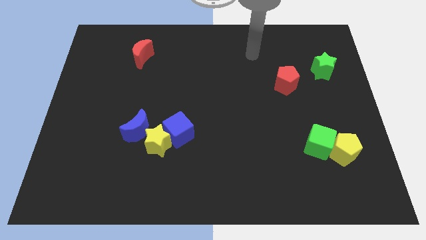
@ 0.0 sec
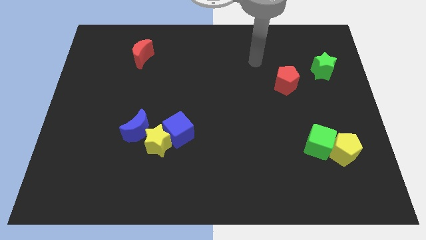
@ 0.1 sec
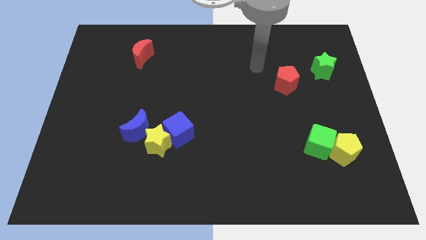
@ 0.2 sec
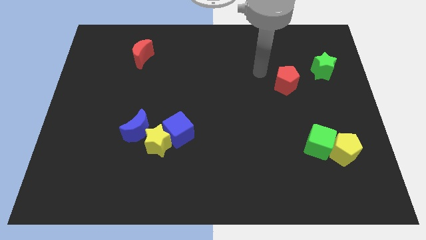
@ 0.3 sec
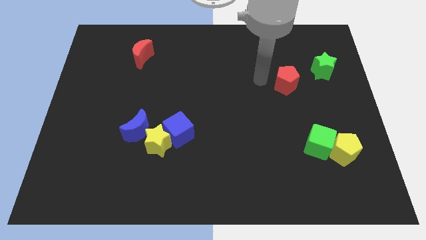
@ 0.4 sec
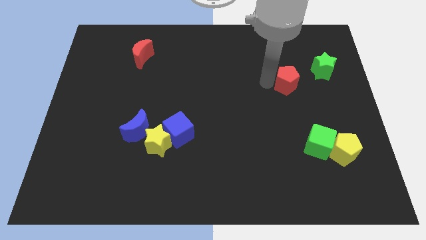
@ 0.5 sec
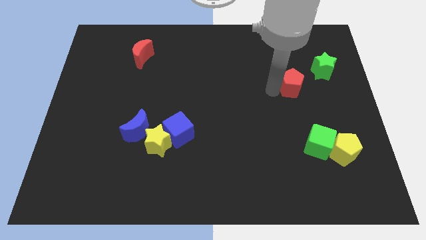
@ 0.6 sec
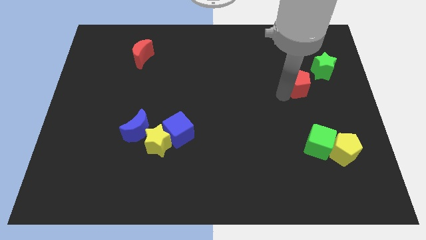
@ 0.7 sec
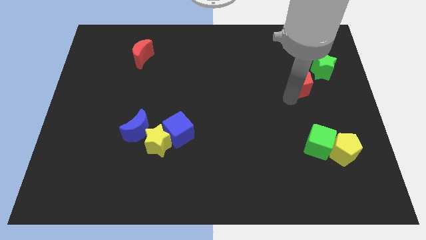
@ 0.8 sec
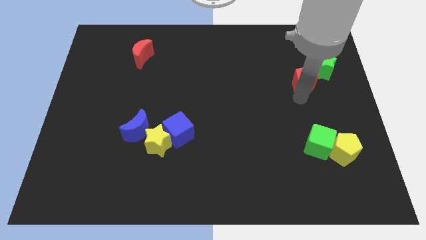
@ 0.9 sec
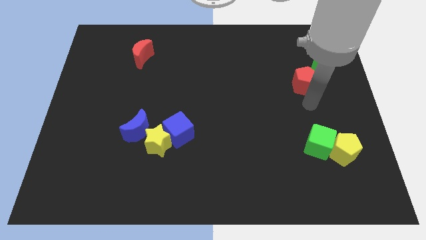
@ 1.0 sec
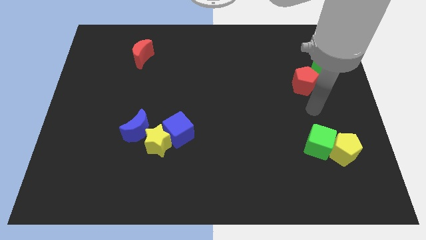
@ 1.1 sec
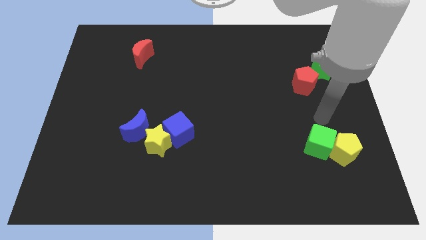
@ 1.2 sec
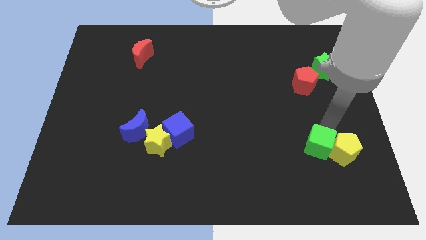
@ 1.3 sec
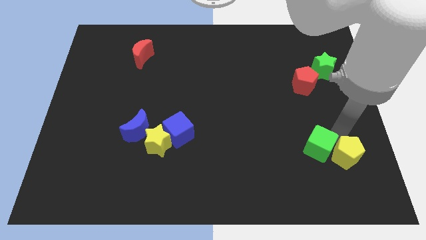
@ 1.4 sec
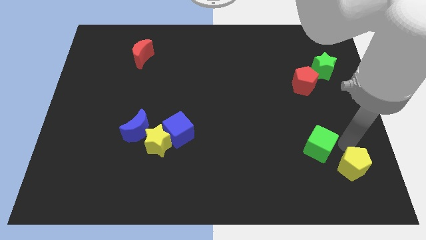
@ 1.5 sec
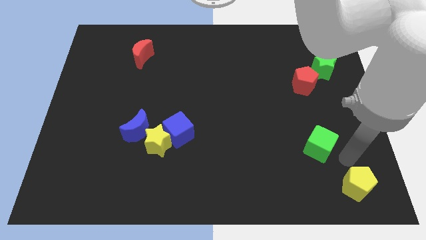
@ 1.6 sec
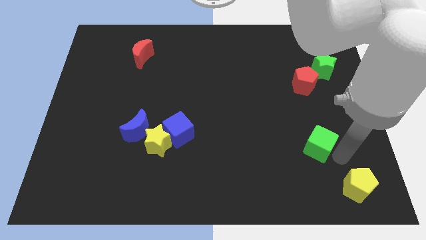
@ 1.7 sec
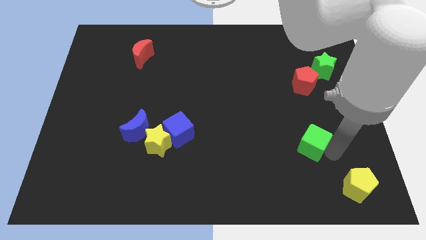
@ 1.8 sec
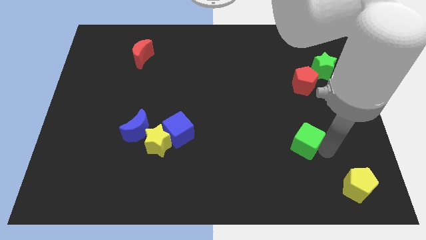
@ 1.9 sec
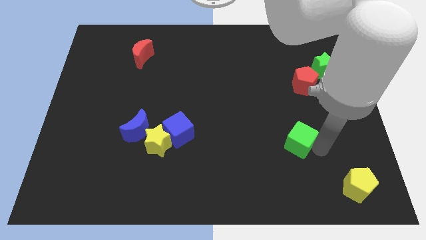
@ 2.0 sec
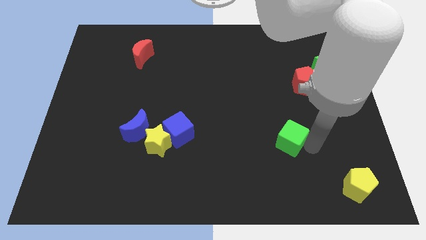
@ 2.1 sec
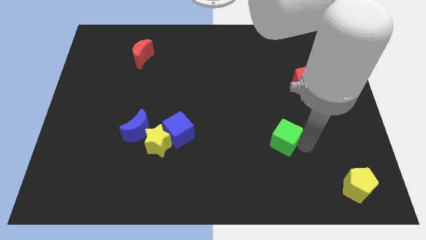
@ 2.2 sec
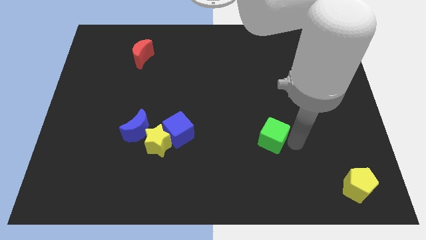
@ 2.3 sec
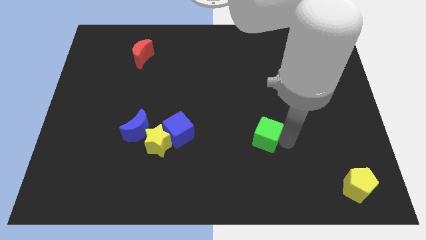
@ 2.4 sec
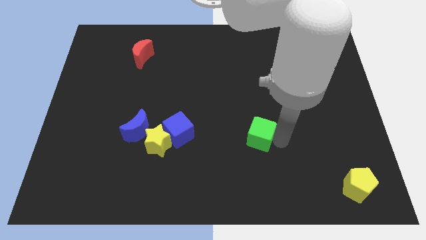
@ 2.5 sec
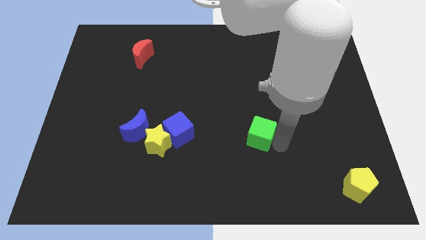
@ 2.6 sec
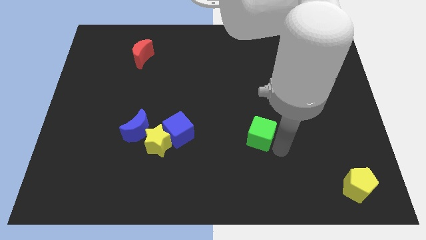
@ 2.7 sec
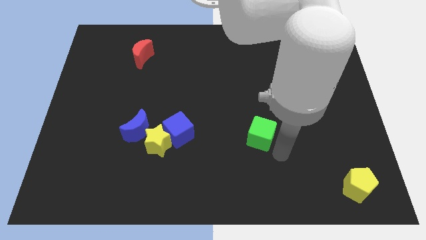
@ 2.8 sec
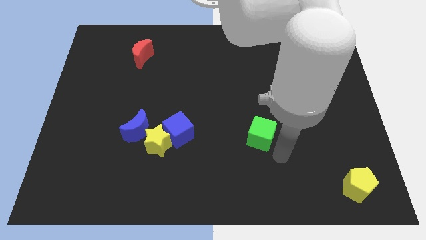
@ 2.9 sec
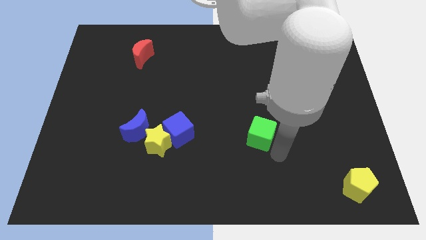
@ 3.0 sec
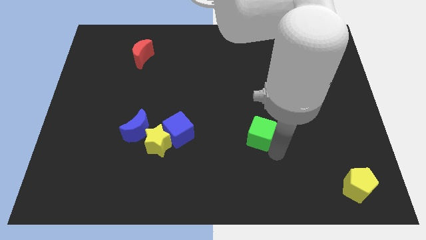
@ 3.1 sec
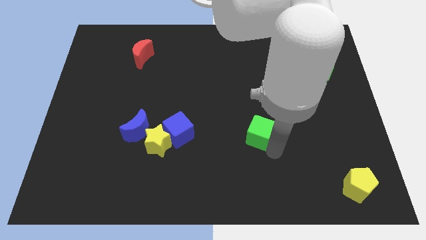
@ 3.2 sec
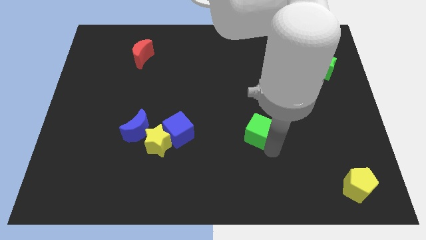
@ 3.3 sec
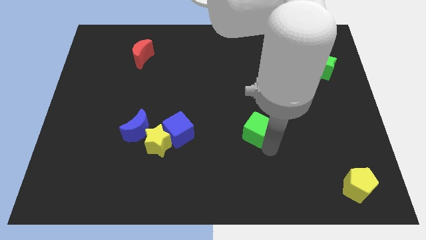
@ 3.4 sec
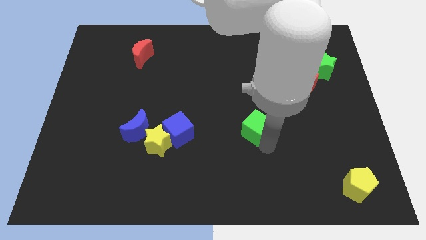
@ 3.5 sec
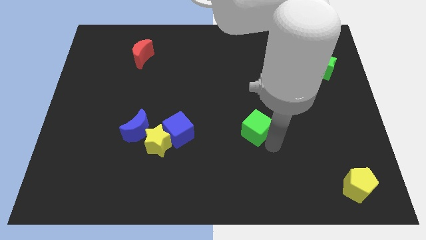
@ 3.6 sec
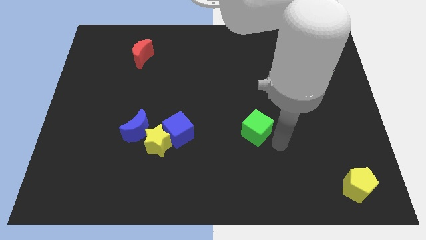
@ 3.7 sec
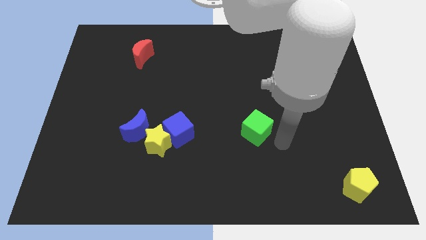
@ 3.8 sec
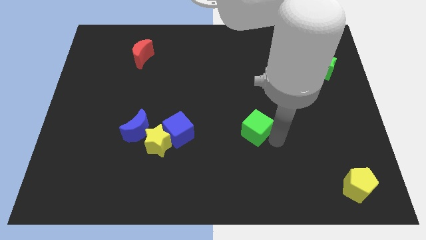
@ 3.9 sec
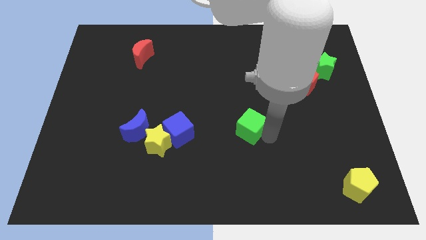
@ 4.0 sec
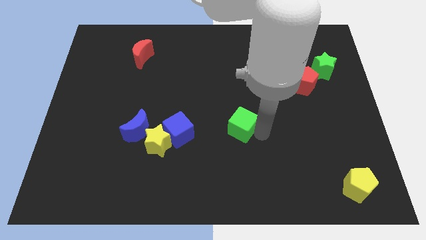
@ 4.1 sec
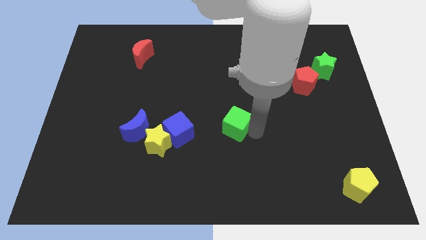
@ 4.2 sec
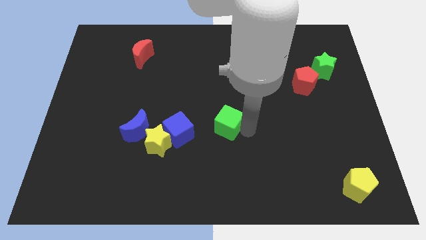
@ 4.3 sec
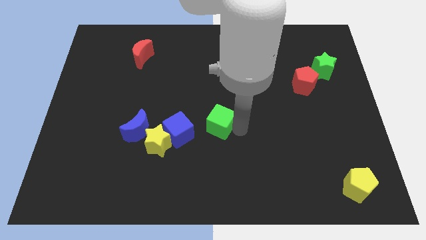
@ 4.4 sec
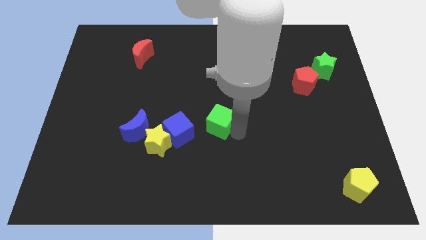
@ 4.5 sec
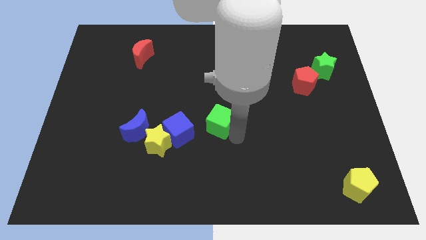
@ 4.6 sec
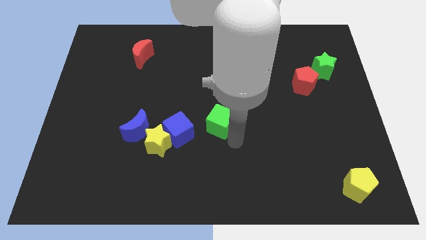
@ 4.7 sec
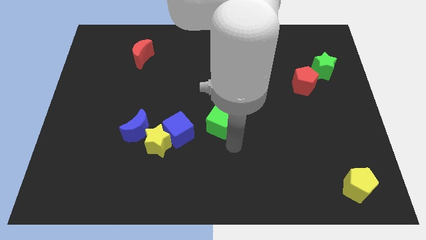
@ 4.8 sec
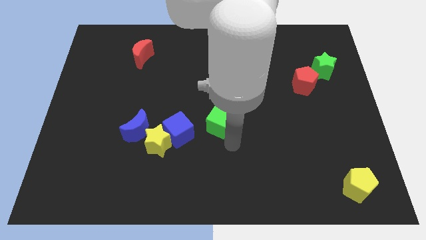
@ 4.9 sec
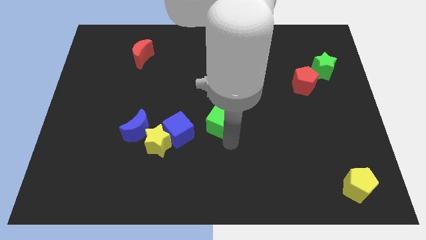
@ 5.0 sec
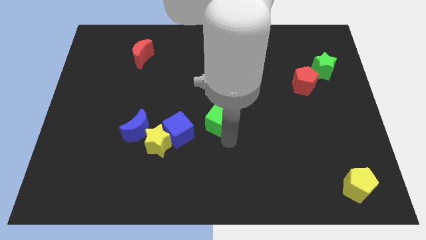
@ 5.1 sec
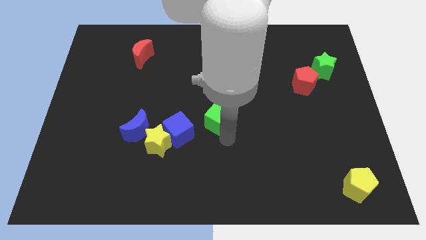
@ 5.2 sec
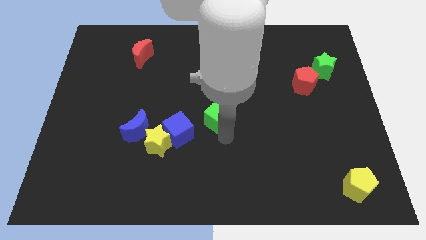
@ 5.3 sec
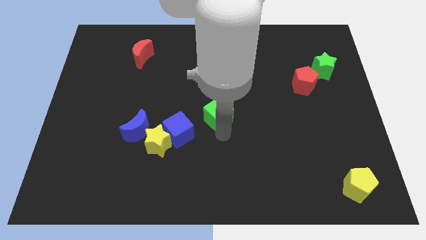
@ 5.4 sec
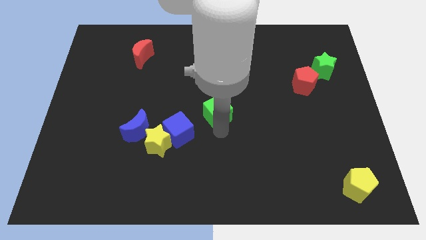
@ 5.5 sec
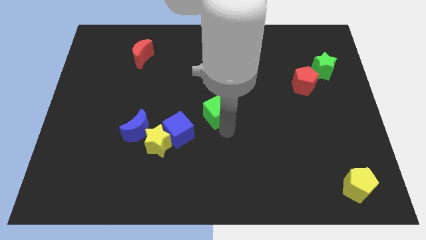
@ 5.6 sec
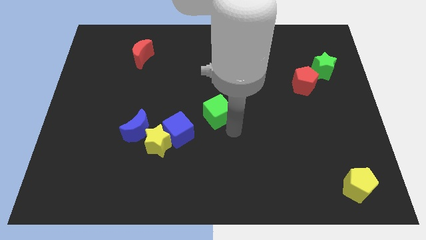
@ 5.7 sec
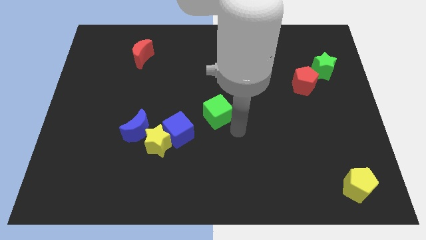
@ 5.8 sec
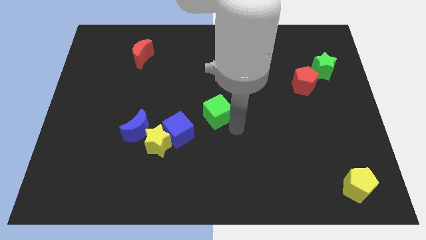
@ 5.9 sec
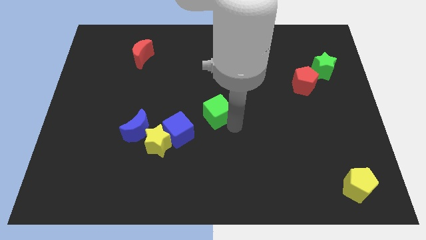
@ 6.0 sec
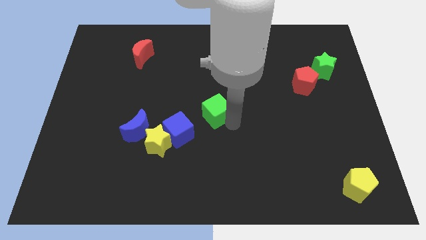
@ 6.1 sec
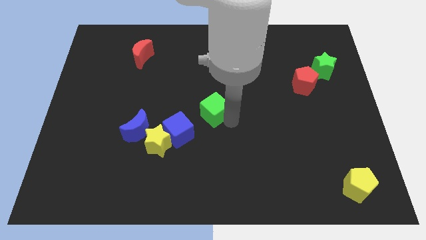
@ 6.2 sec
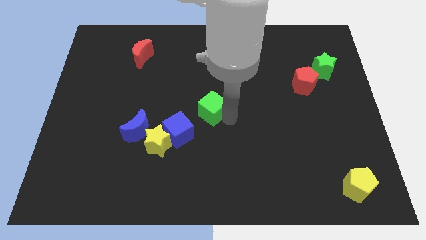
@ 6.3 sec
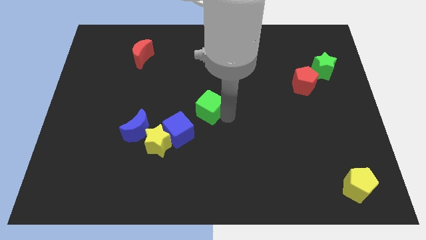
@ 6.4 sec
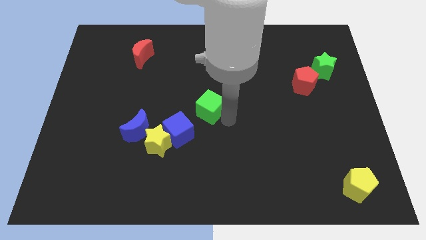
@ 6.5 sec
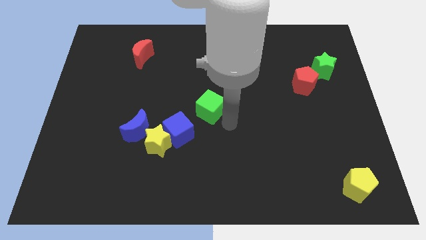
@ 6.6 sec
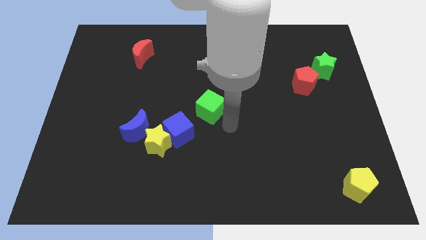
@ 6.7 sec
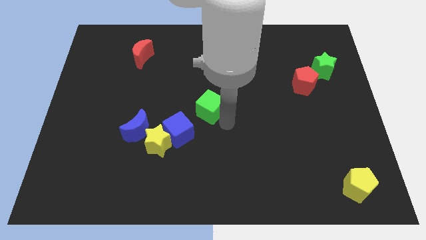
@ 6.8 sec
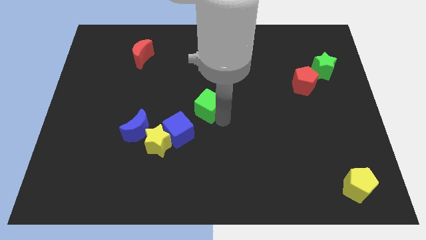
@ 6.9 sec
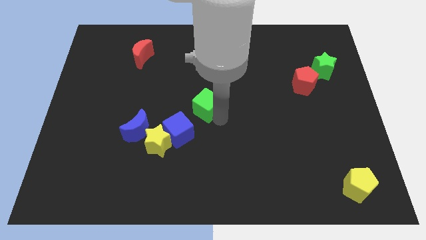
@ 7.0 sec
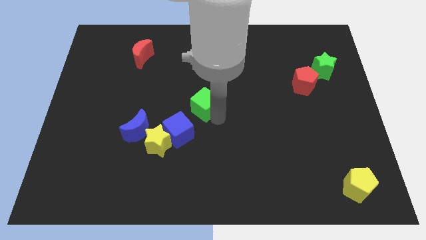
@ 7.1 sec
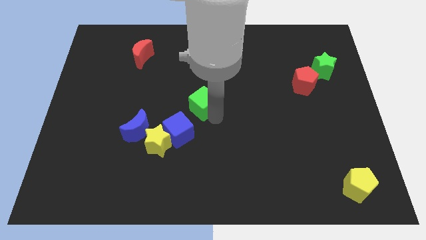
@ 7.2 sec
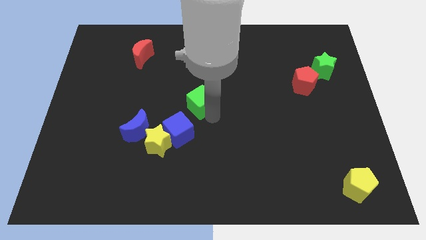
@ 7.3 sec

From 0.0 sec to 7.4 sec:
move the green cube to the top side of the blue cube

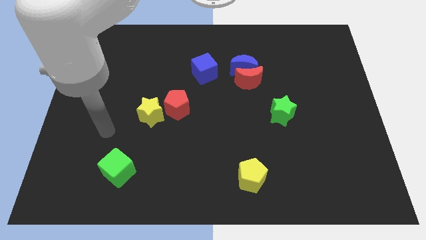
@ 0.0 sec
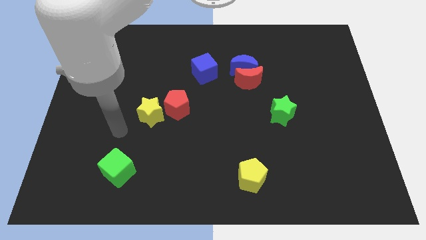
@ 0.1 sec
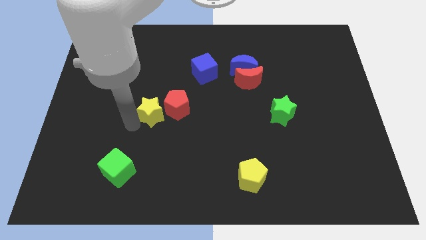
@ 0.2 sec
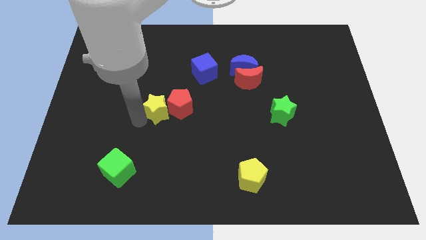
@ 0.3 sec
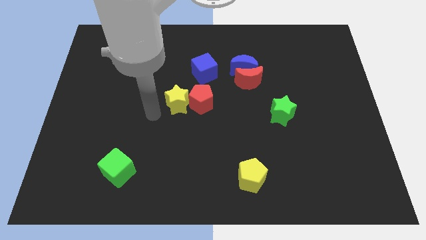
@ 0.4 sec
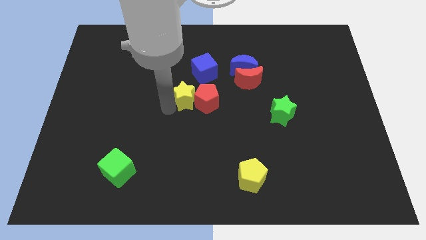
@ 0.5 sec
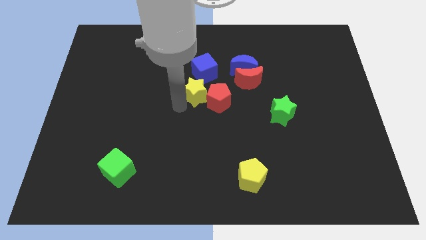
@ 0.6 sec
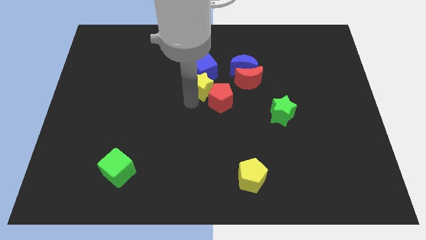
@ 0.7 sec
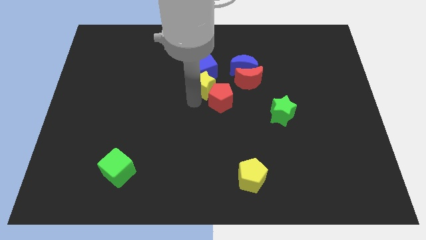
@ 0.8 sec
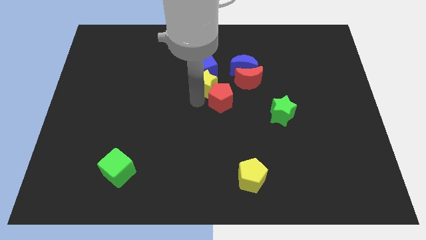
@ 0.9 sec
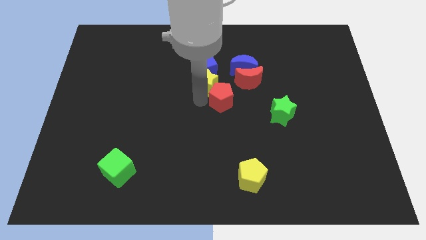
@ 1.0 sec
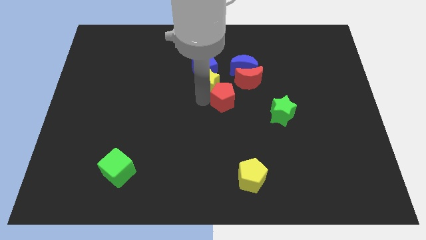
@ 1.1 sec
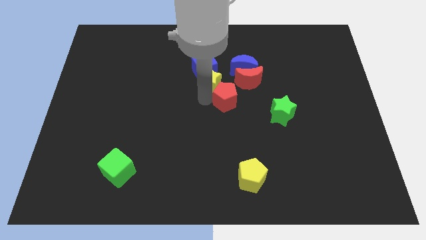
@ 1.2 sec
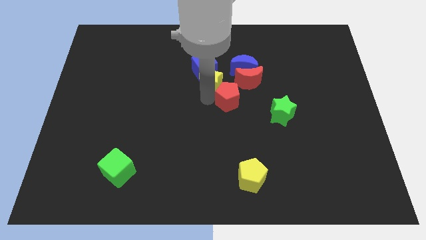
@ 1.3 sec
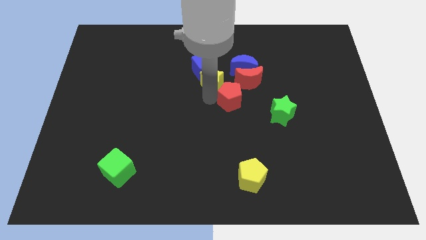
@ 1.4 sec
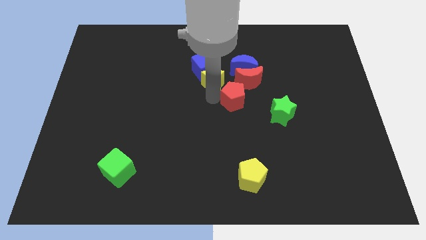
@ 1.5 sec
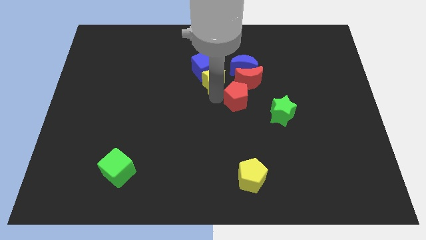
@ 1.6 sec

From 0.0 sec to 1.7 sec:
move the red pentagon to the top left side of the green star
